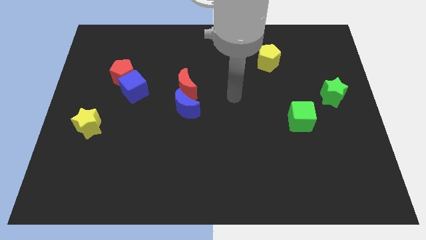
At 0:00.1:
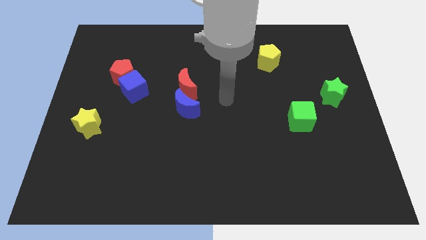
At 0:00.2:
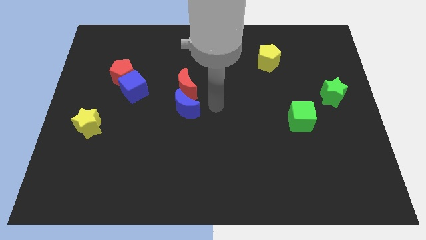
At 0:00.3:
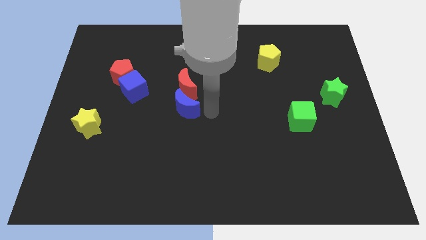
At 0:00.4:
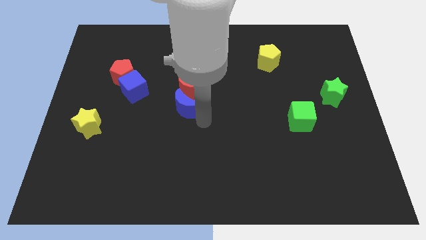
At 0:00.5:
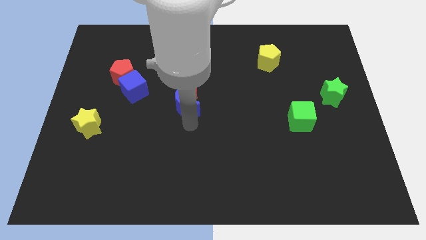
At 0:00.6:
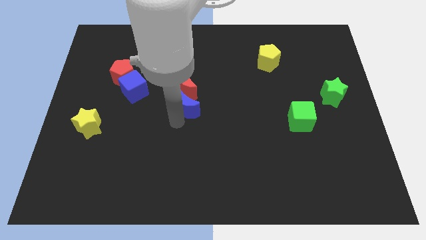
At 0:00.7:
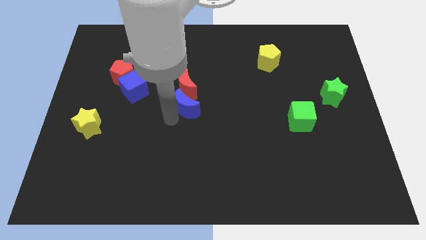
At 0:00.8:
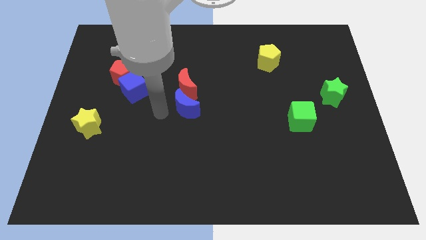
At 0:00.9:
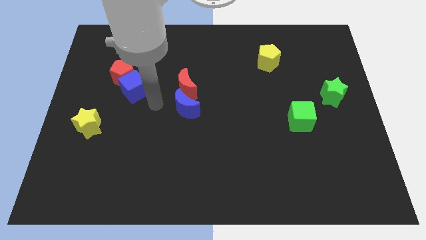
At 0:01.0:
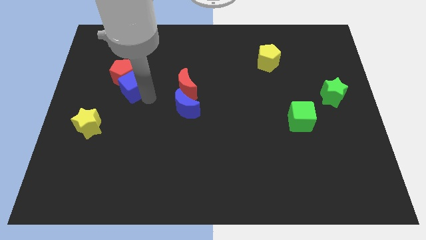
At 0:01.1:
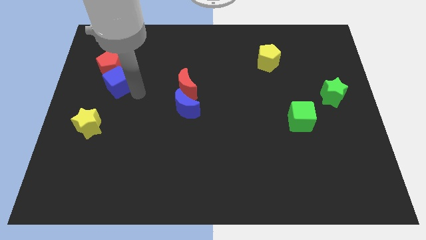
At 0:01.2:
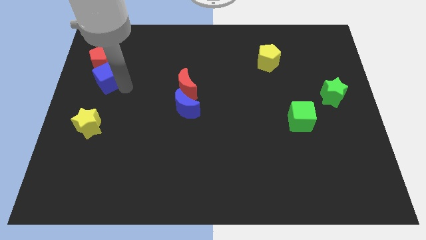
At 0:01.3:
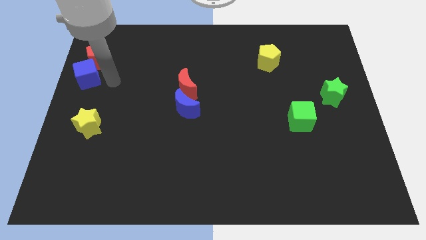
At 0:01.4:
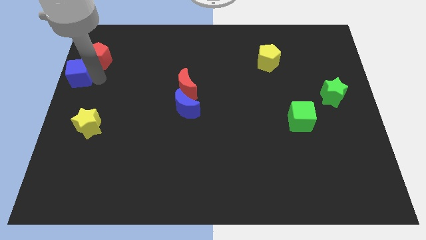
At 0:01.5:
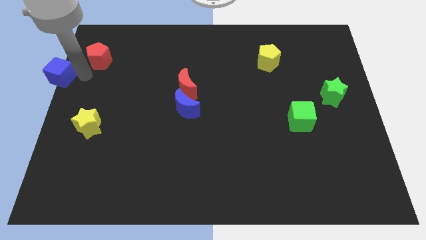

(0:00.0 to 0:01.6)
separate the red pentagon from the blue cube

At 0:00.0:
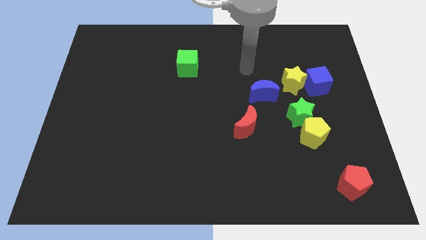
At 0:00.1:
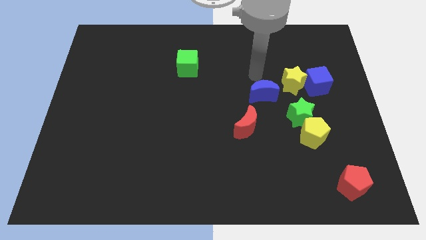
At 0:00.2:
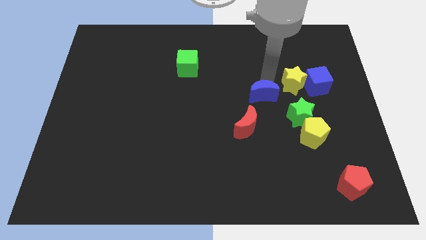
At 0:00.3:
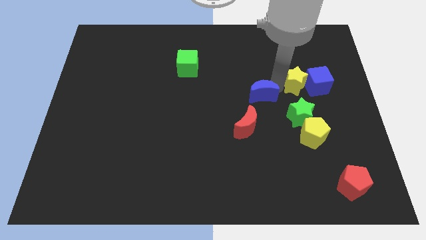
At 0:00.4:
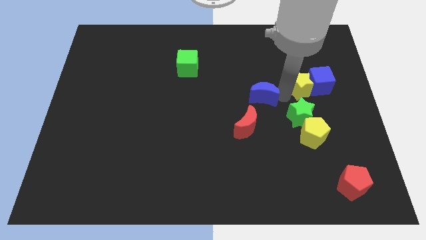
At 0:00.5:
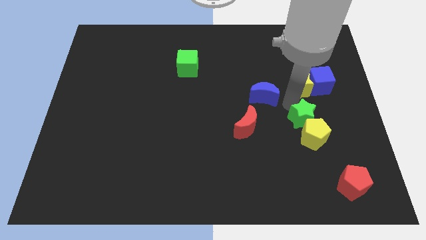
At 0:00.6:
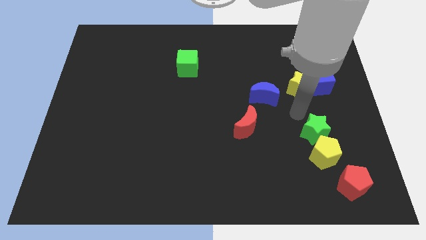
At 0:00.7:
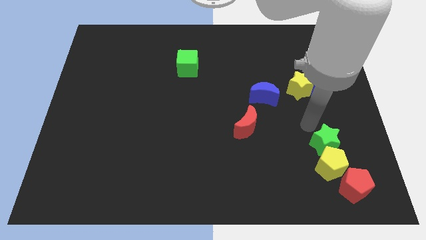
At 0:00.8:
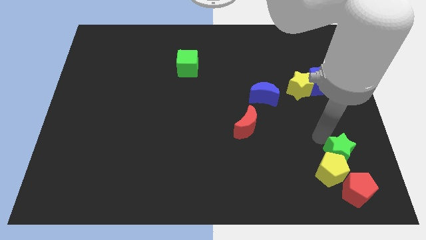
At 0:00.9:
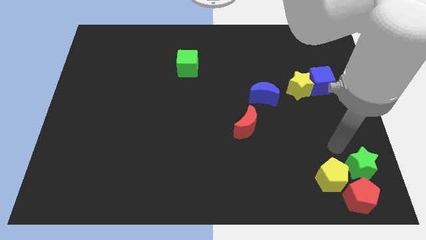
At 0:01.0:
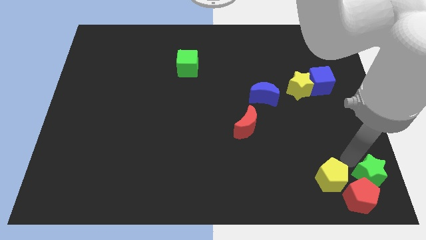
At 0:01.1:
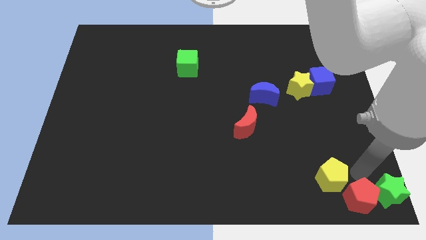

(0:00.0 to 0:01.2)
separate the yellow pentagon from the green star

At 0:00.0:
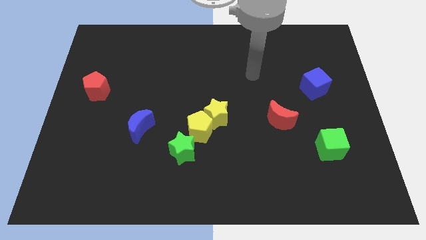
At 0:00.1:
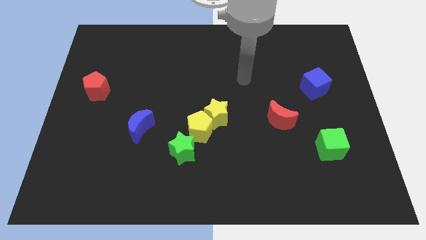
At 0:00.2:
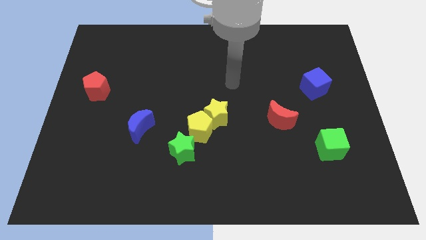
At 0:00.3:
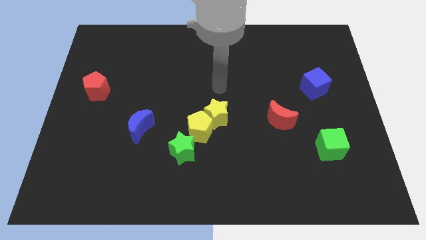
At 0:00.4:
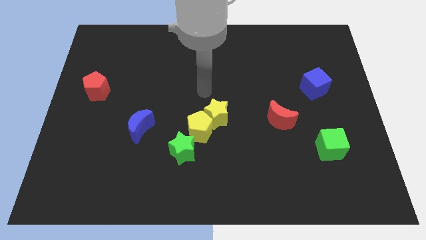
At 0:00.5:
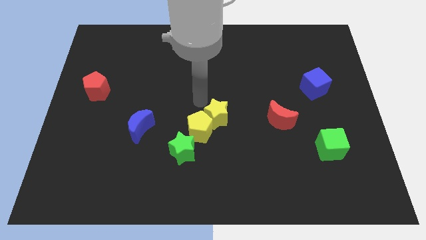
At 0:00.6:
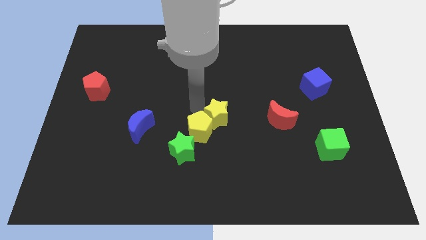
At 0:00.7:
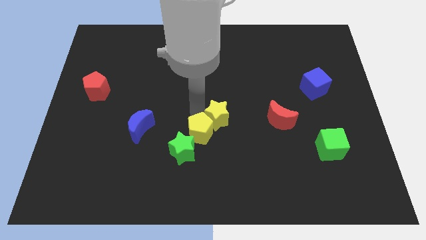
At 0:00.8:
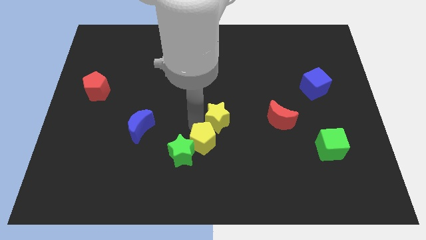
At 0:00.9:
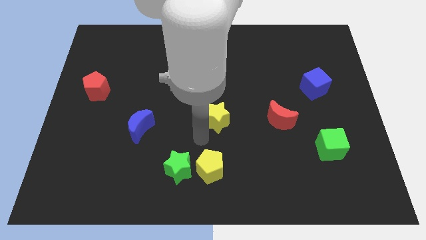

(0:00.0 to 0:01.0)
move the yellow star away from the yellow pentagon

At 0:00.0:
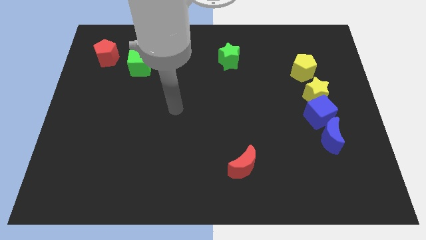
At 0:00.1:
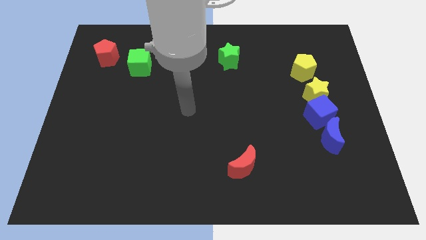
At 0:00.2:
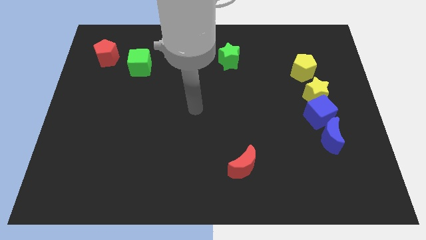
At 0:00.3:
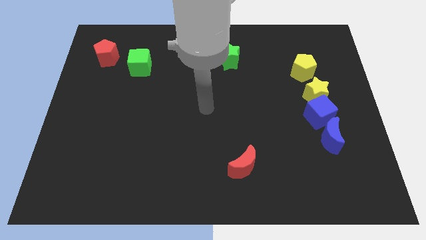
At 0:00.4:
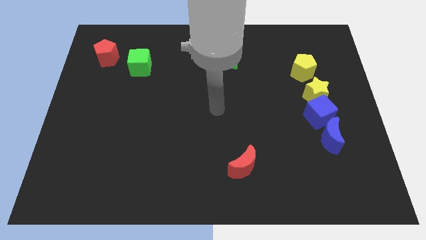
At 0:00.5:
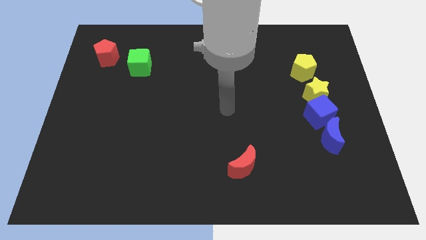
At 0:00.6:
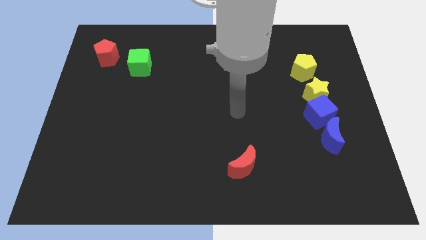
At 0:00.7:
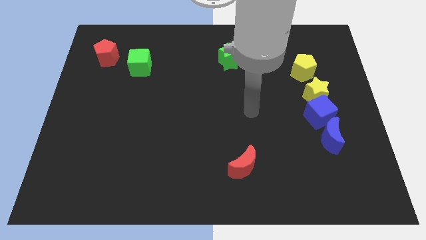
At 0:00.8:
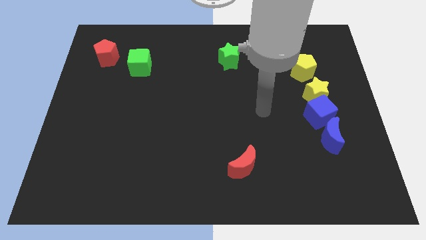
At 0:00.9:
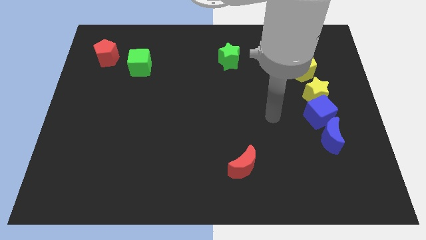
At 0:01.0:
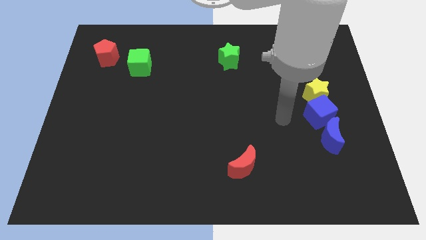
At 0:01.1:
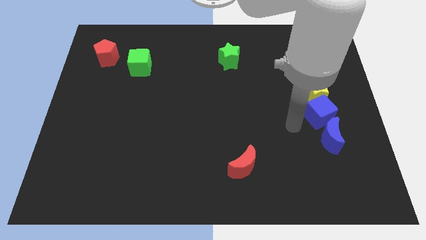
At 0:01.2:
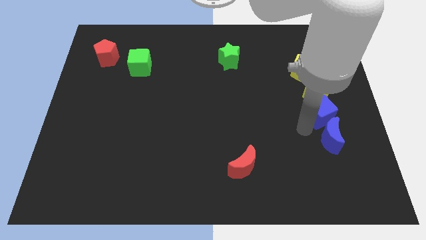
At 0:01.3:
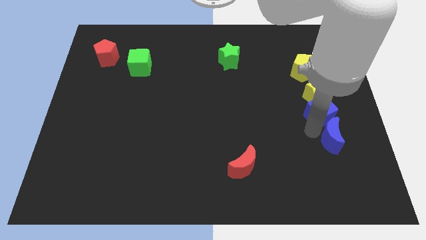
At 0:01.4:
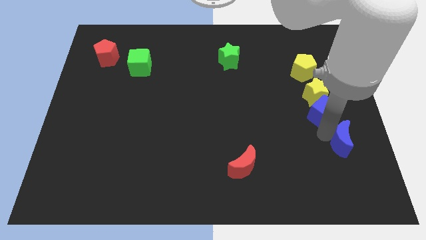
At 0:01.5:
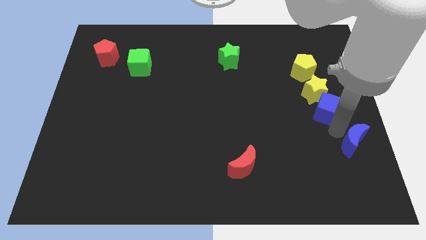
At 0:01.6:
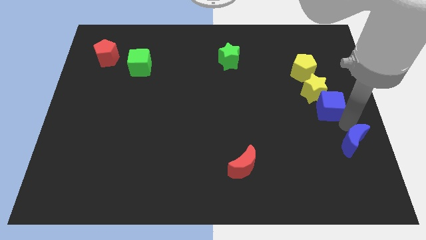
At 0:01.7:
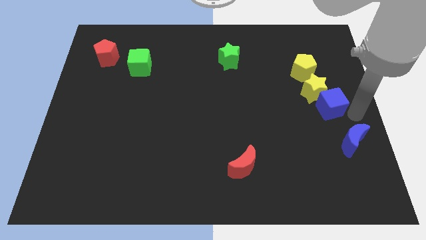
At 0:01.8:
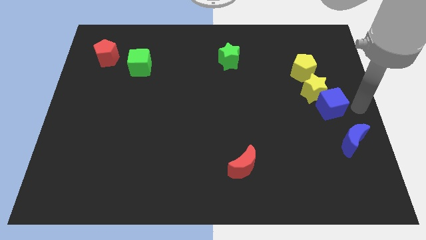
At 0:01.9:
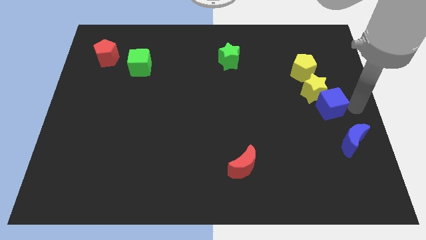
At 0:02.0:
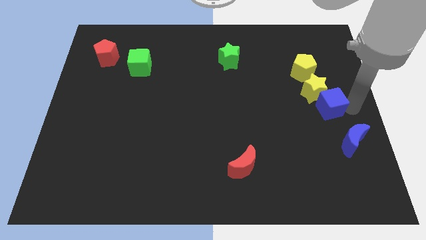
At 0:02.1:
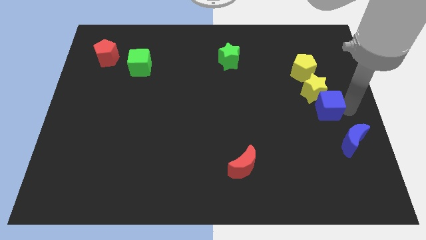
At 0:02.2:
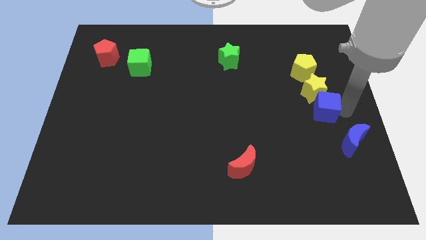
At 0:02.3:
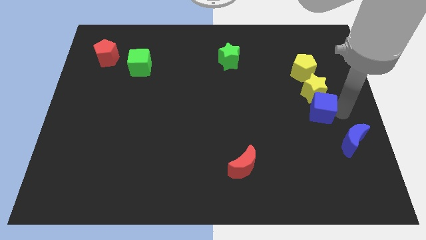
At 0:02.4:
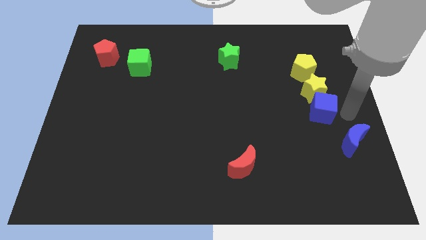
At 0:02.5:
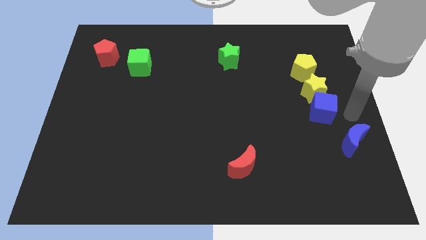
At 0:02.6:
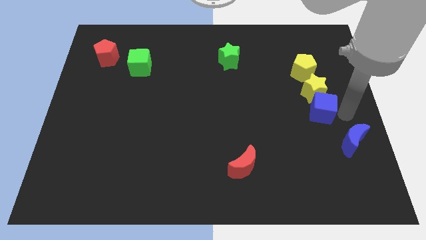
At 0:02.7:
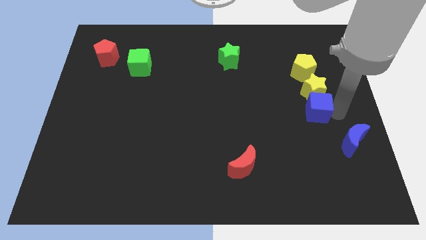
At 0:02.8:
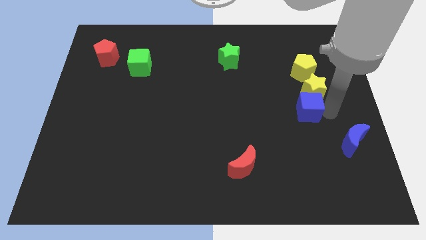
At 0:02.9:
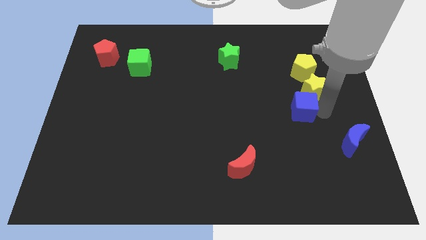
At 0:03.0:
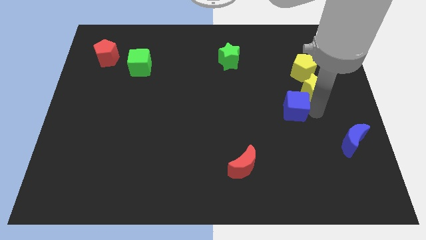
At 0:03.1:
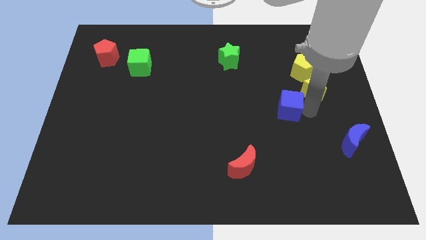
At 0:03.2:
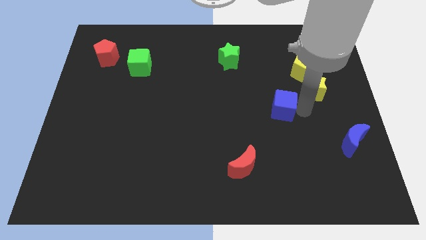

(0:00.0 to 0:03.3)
separate the blue cube from the yellow star and blue moon

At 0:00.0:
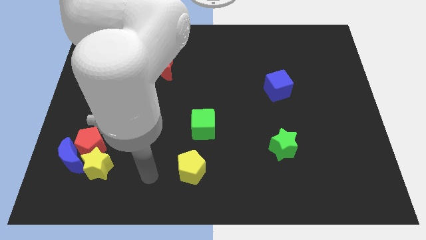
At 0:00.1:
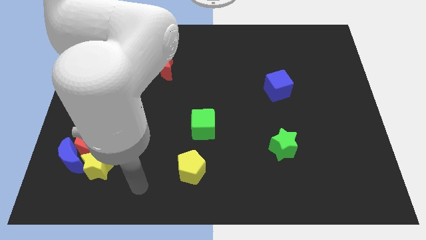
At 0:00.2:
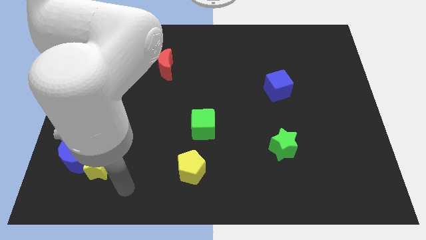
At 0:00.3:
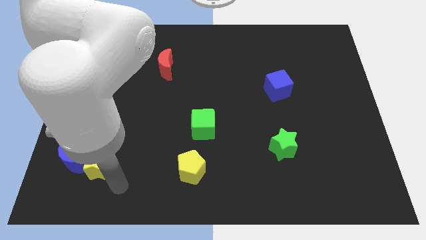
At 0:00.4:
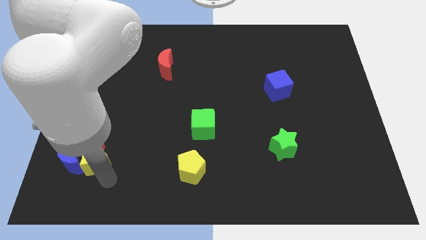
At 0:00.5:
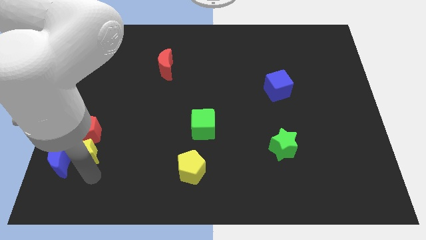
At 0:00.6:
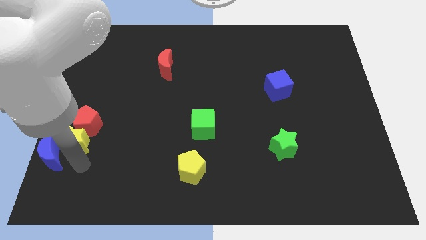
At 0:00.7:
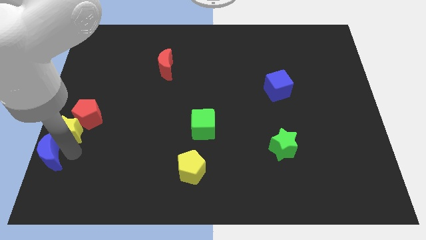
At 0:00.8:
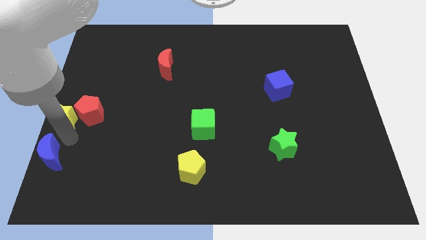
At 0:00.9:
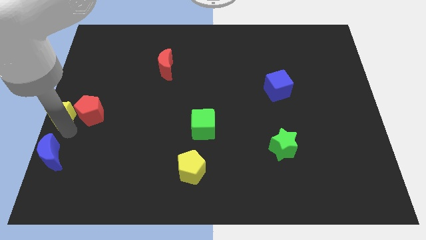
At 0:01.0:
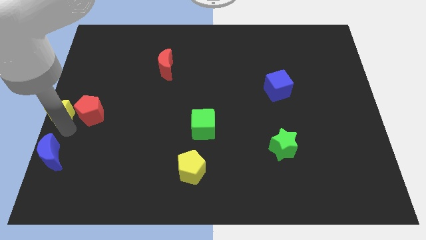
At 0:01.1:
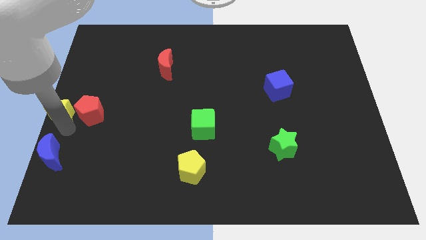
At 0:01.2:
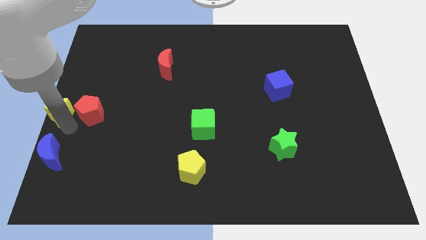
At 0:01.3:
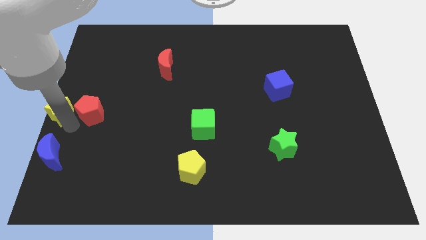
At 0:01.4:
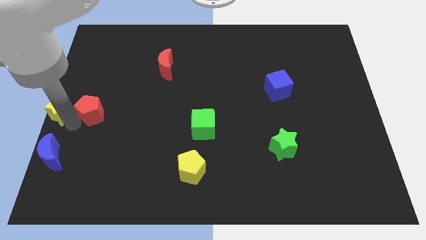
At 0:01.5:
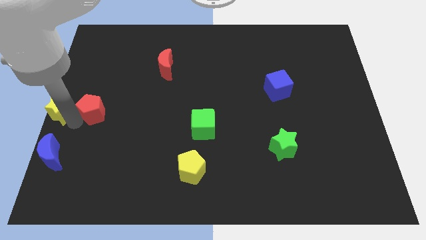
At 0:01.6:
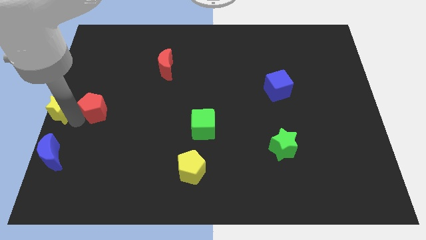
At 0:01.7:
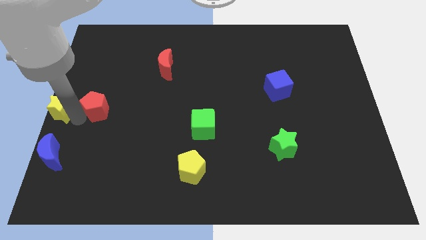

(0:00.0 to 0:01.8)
pull the red pentagon apart from the blue moon and yellow star

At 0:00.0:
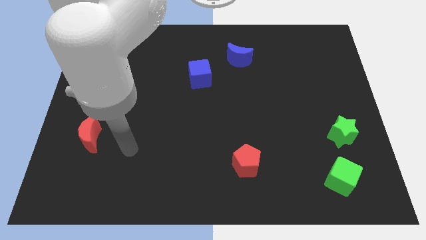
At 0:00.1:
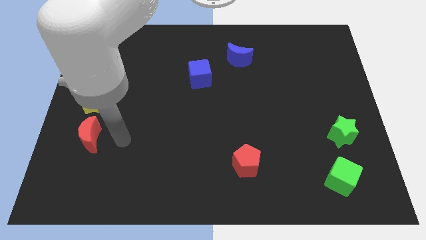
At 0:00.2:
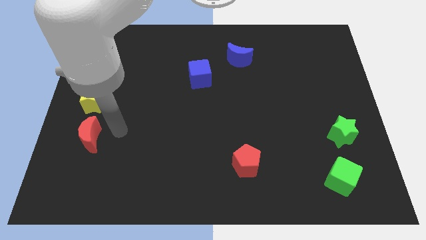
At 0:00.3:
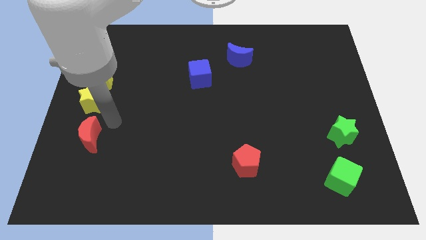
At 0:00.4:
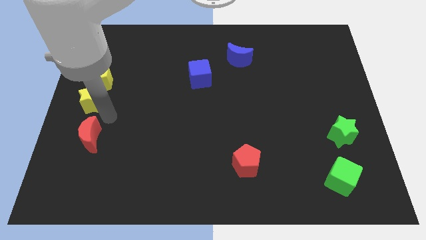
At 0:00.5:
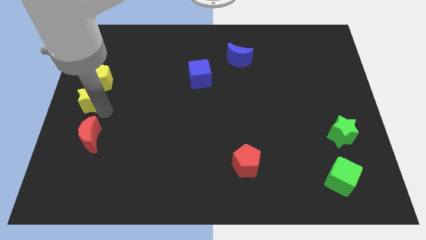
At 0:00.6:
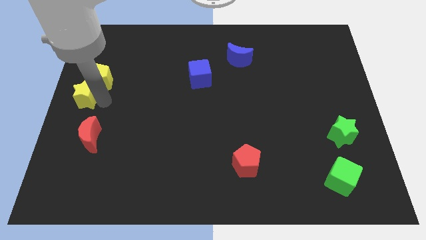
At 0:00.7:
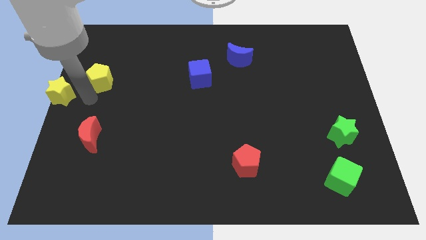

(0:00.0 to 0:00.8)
separate the yellow pentagon from the yellow star
